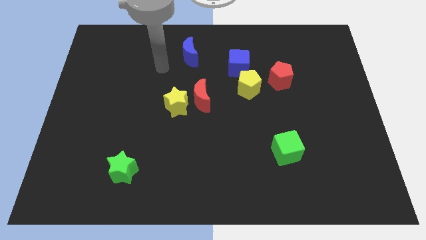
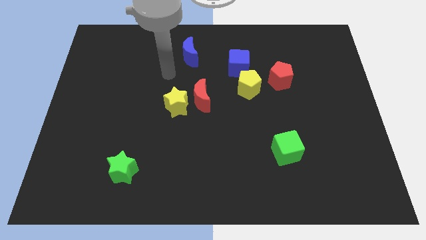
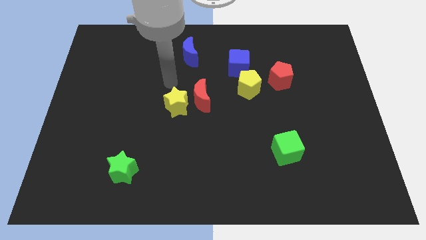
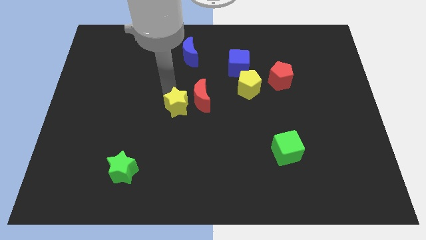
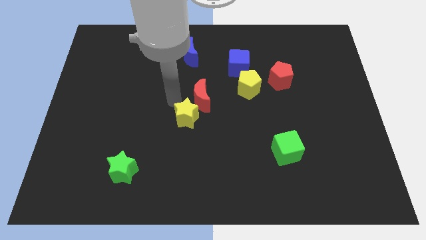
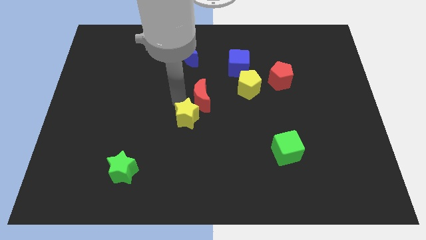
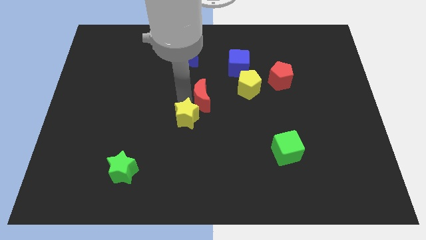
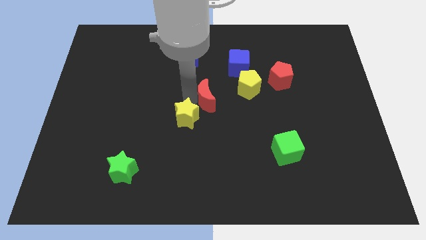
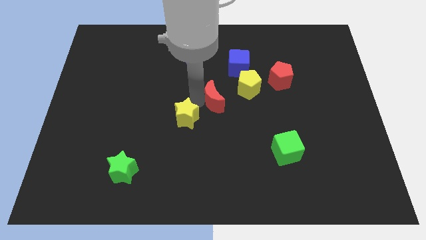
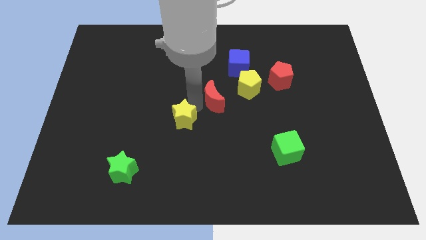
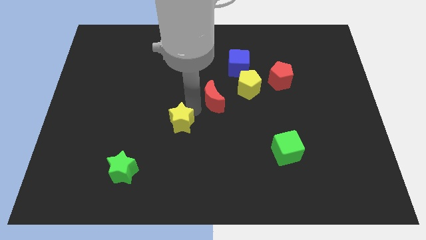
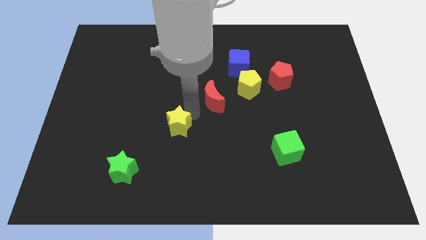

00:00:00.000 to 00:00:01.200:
pull the red moon apart from the yellow star

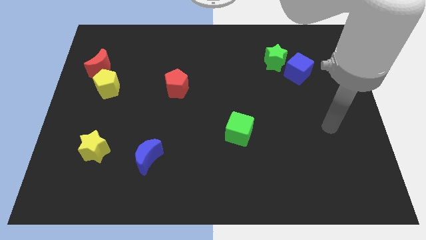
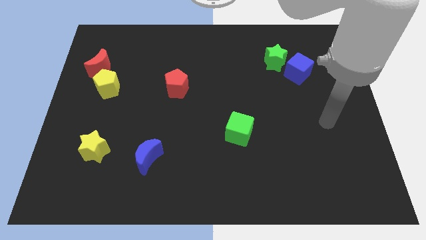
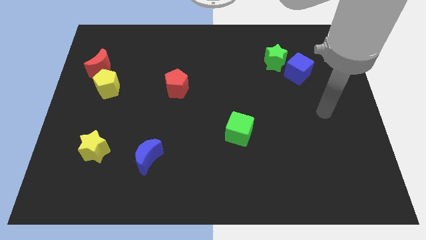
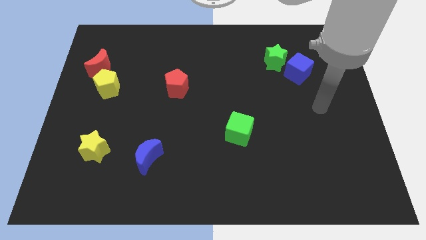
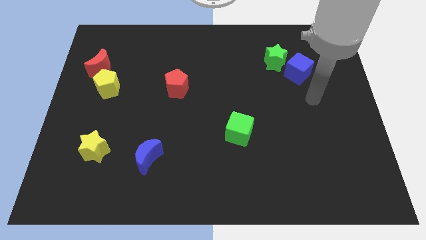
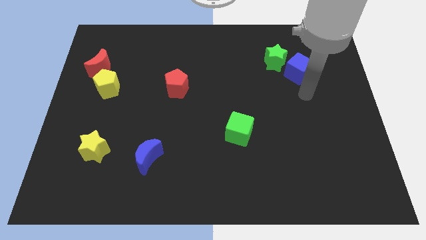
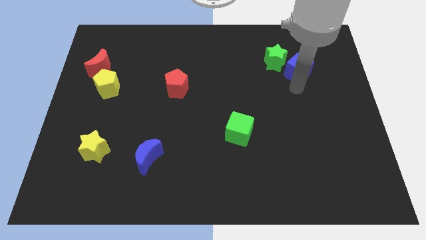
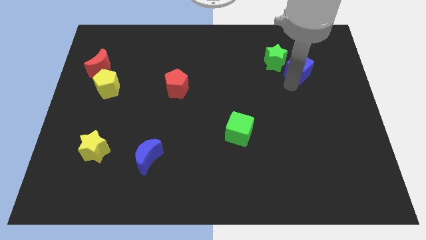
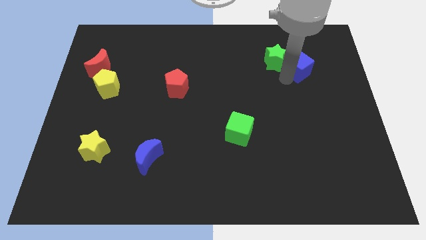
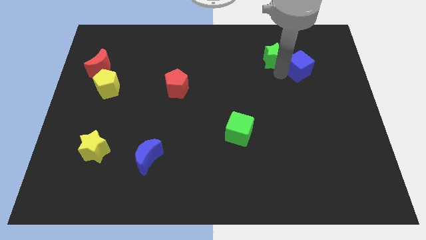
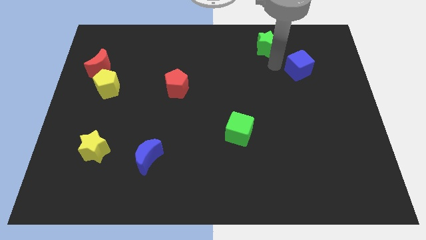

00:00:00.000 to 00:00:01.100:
move the blue cube away from the green star

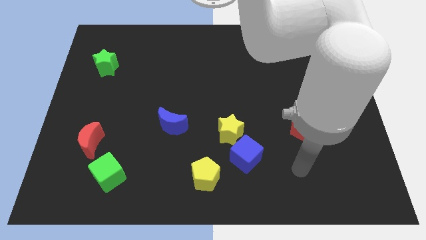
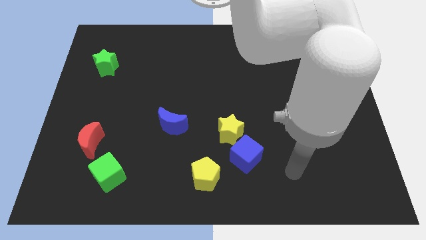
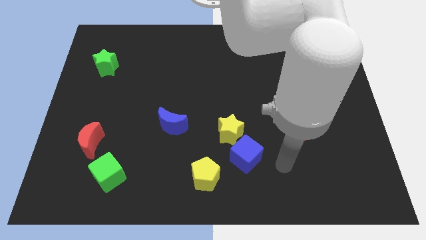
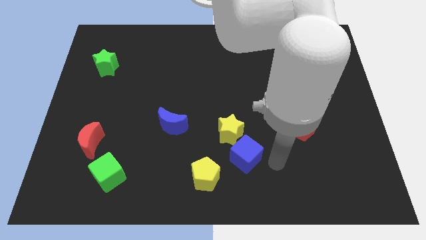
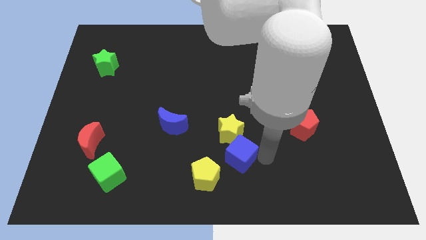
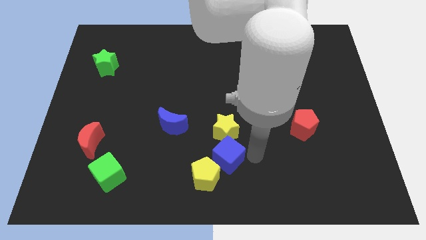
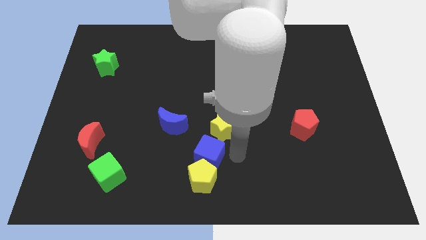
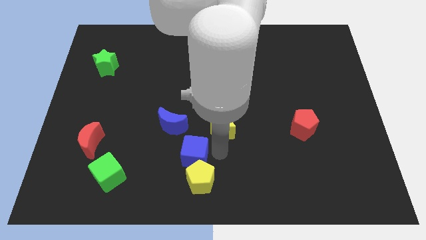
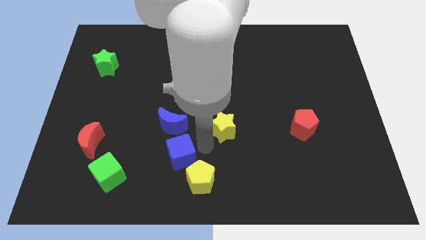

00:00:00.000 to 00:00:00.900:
pull the yellow star apart from the blue cube

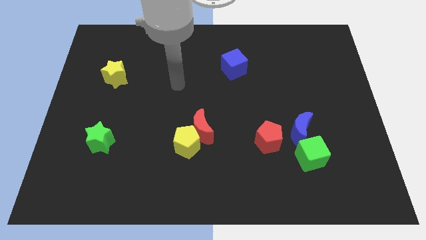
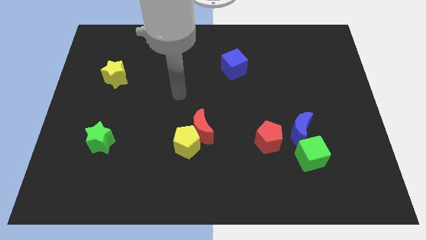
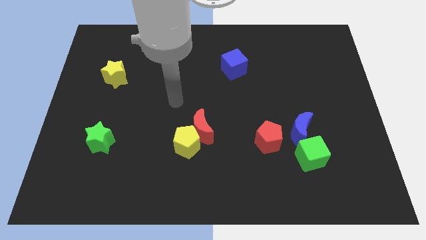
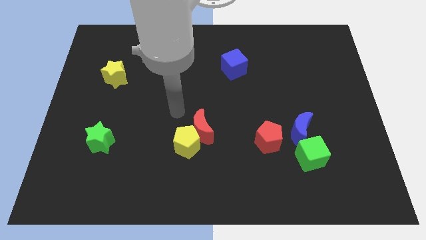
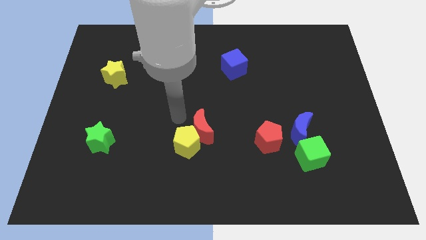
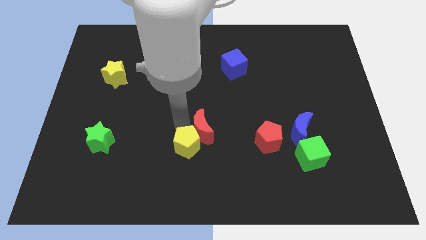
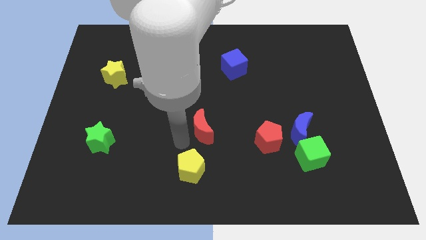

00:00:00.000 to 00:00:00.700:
separate the red moon from the yellow pentagon

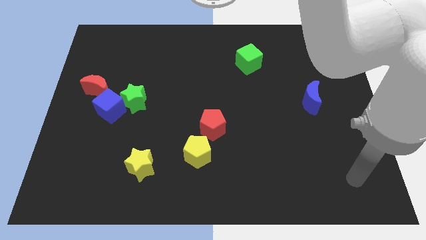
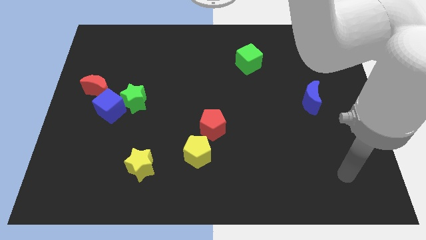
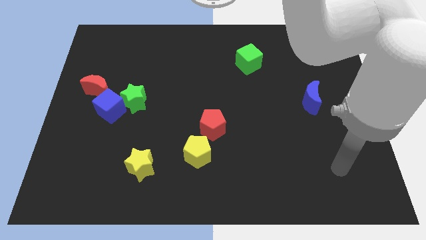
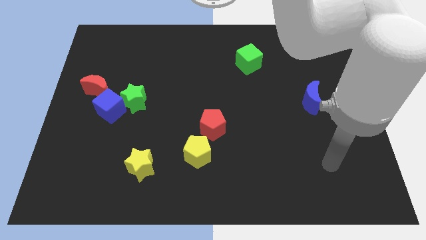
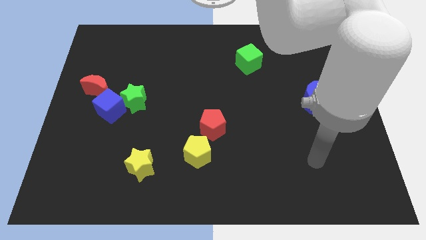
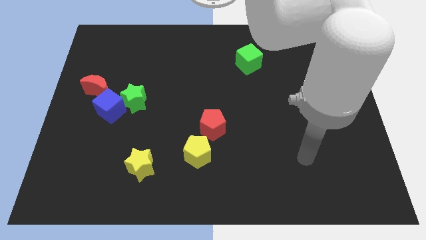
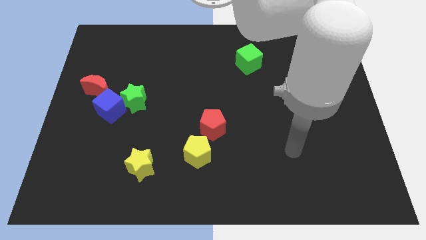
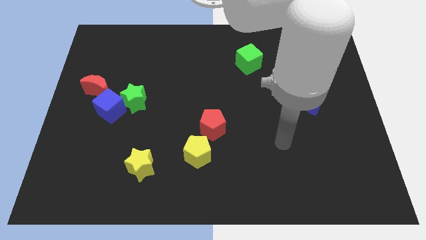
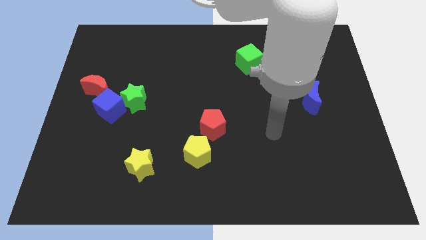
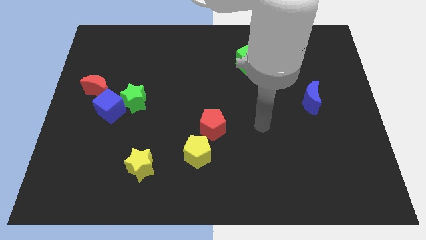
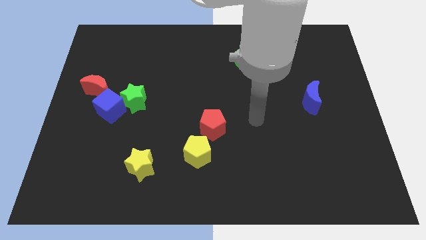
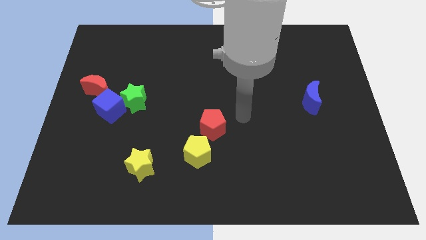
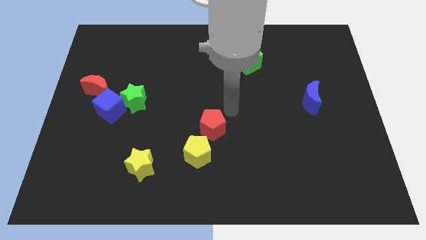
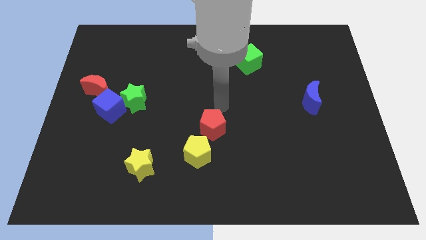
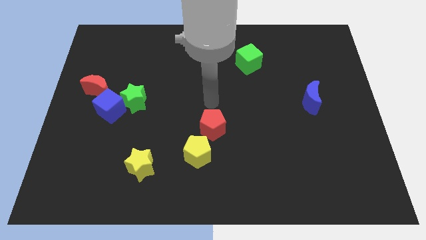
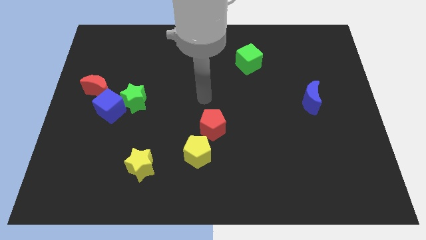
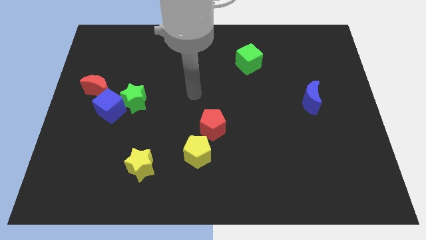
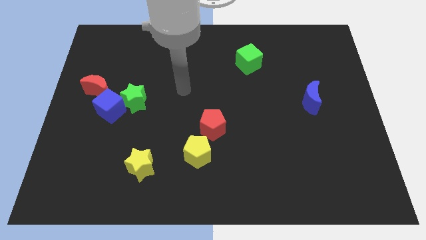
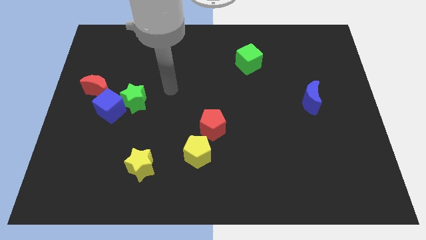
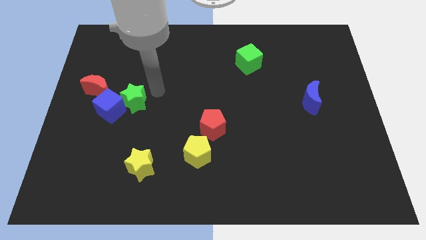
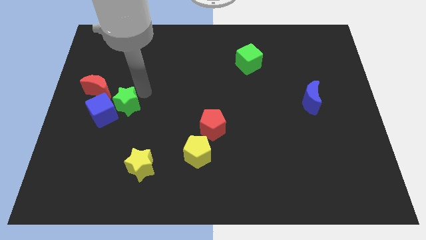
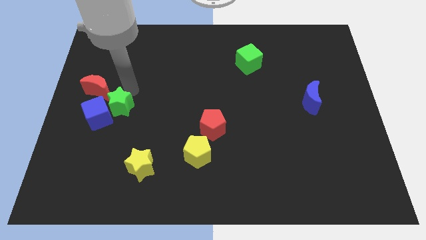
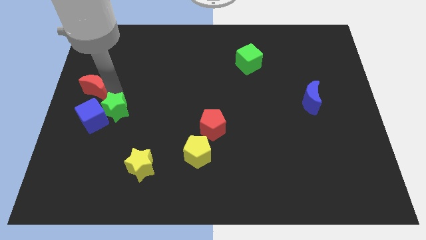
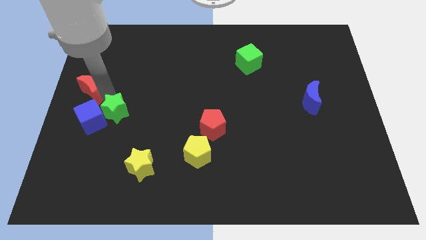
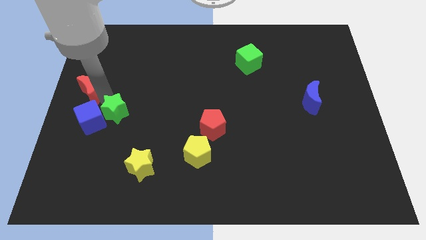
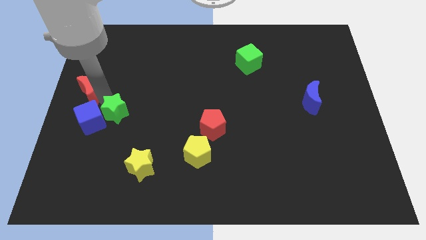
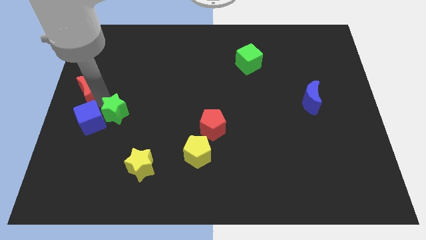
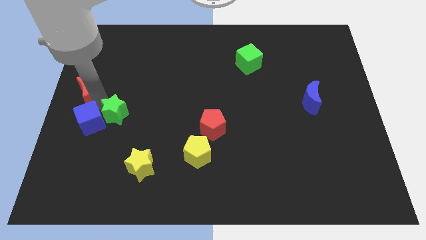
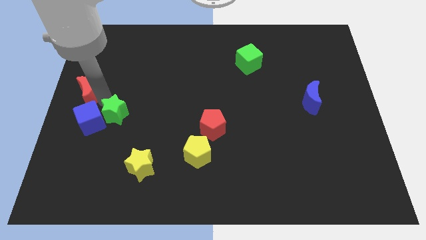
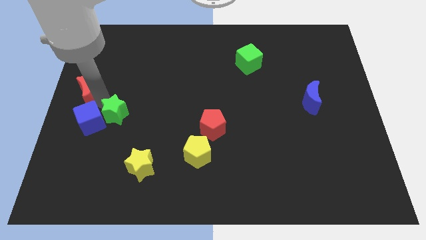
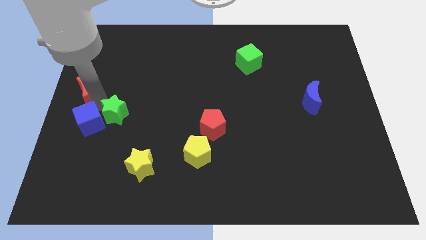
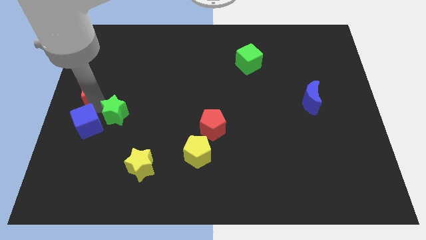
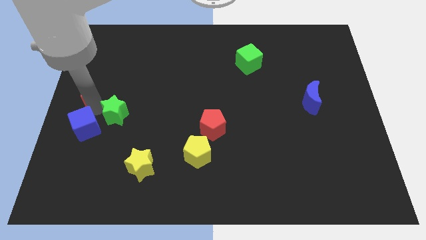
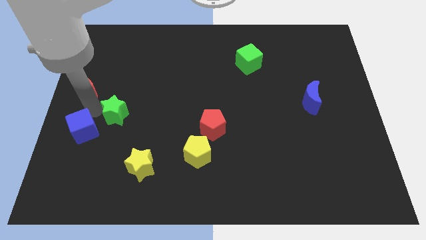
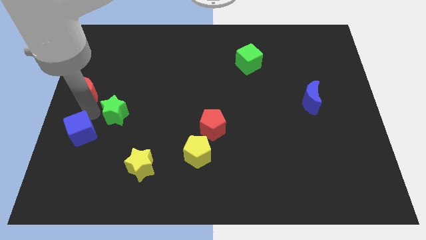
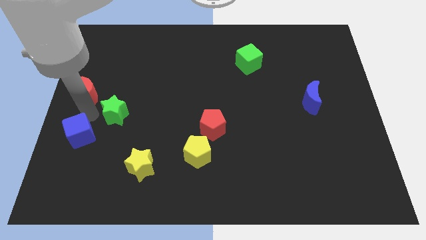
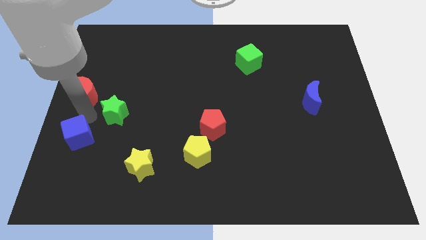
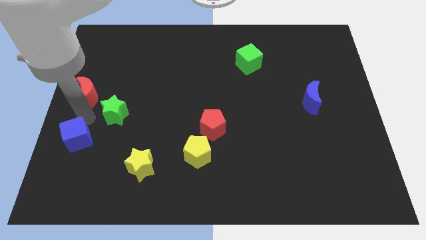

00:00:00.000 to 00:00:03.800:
pull the blue cube apart from the green star and red moon

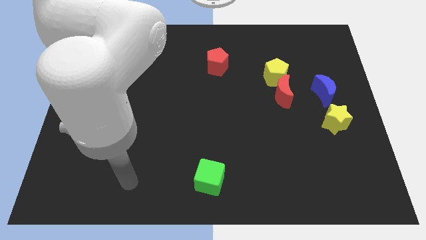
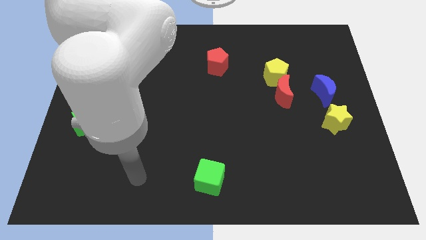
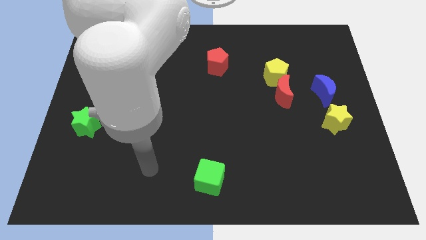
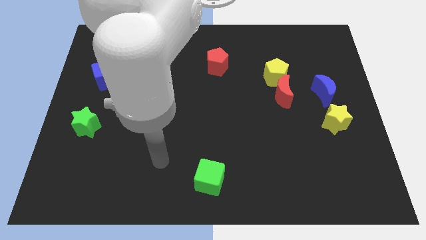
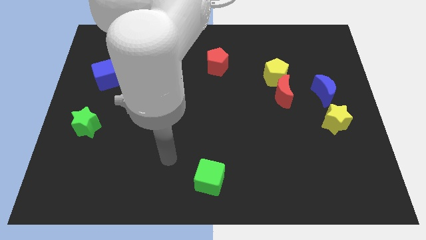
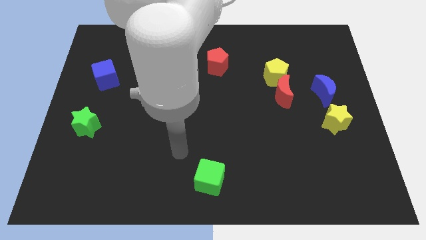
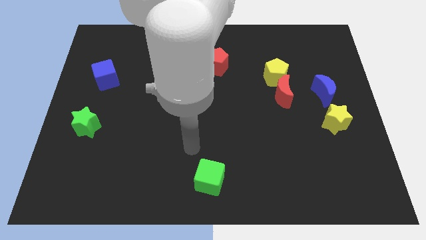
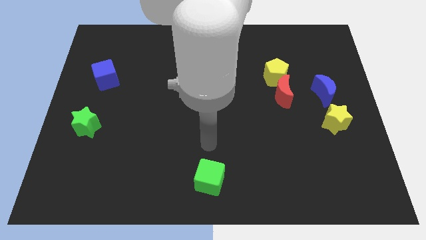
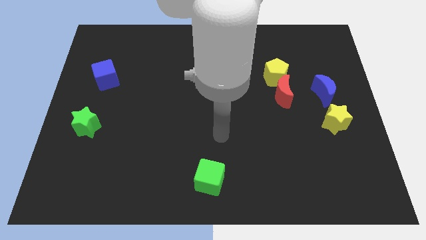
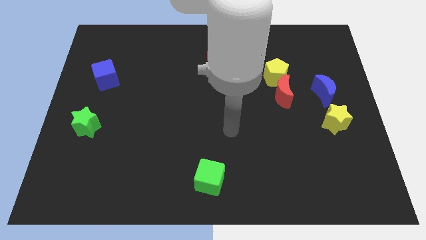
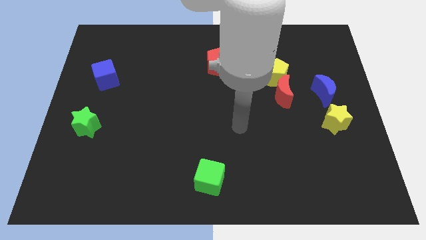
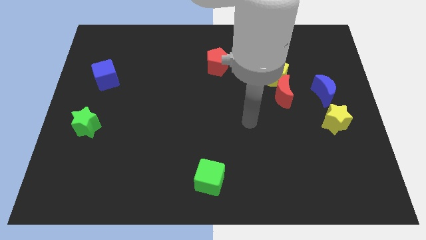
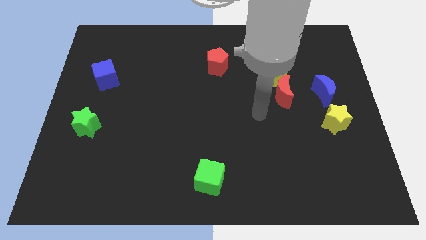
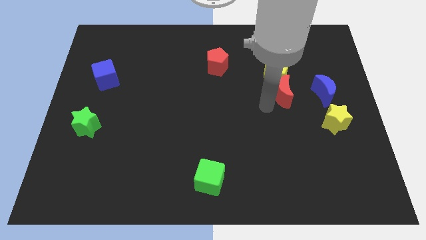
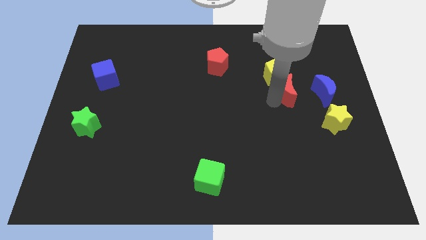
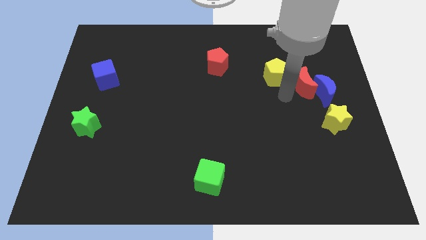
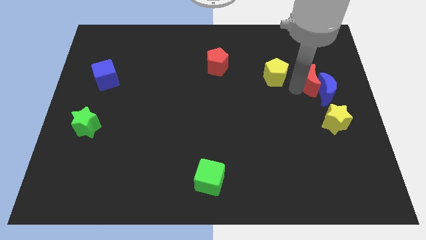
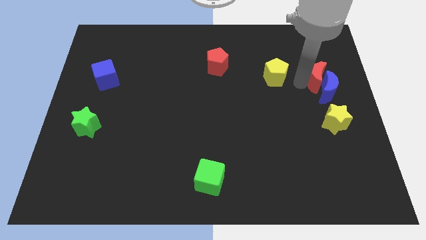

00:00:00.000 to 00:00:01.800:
move the yellow pentagon away from the red moon
